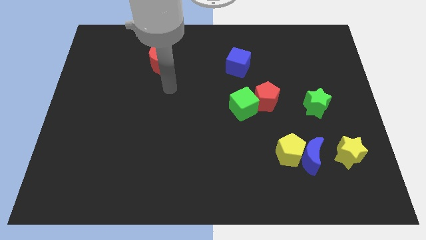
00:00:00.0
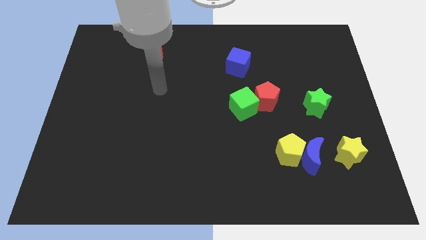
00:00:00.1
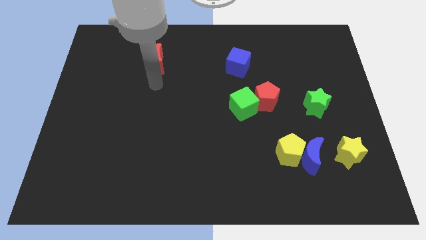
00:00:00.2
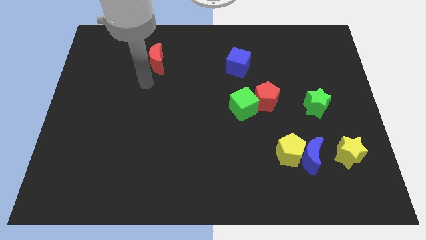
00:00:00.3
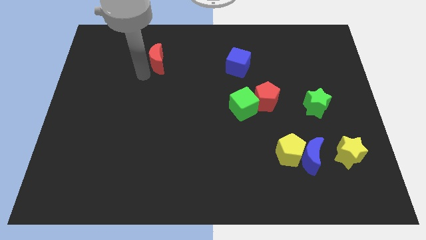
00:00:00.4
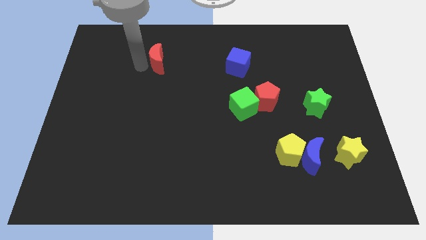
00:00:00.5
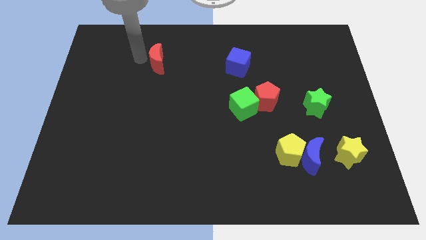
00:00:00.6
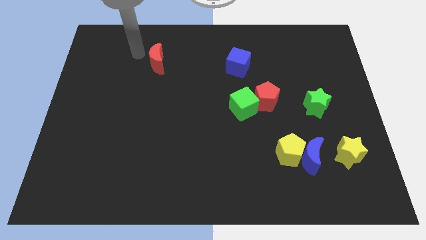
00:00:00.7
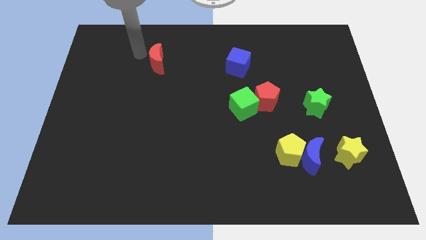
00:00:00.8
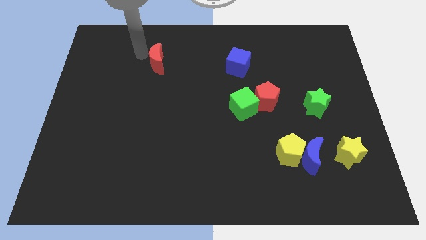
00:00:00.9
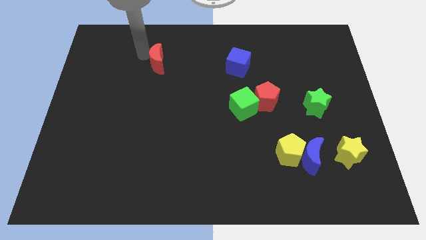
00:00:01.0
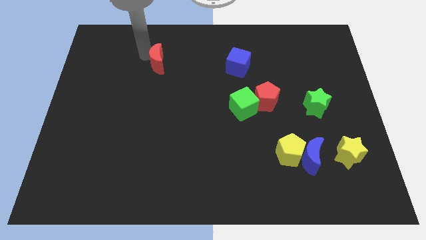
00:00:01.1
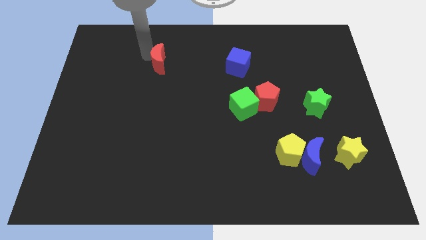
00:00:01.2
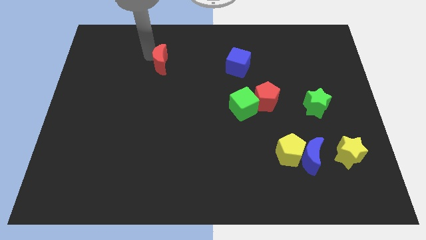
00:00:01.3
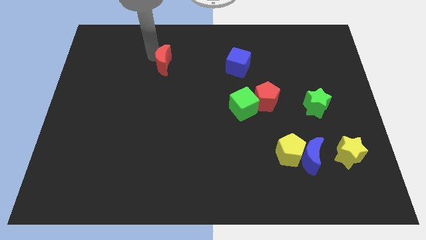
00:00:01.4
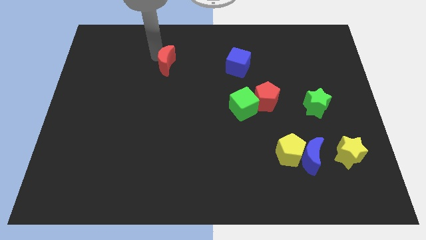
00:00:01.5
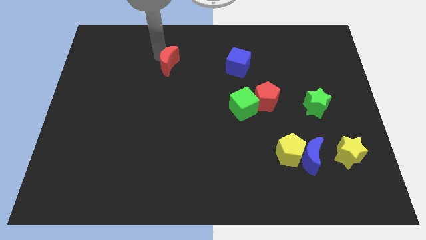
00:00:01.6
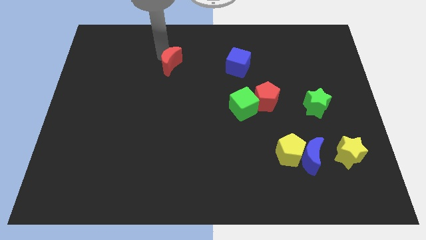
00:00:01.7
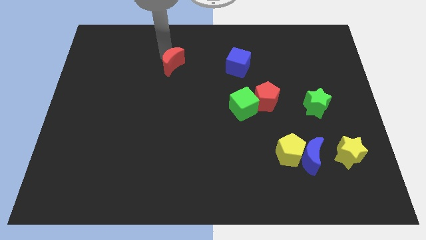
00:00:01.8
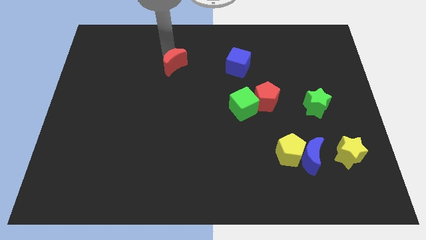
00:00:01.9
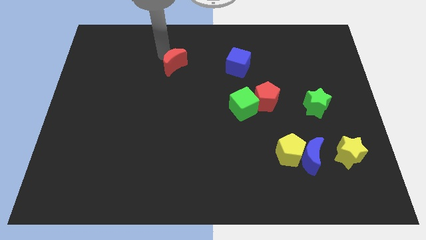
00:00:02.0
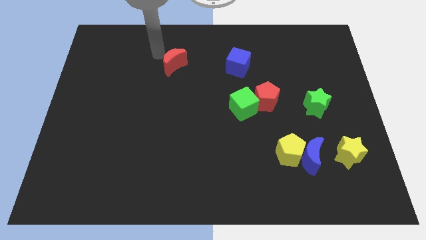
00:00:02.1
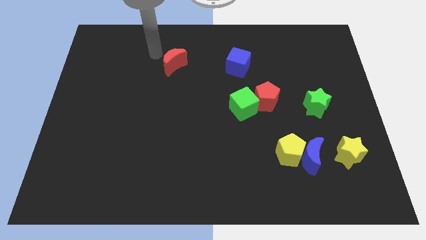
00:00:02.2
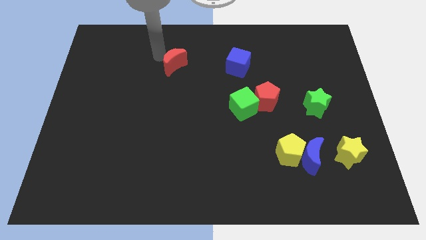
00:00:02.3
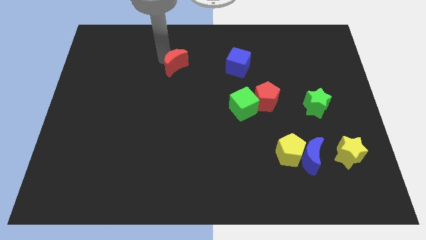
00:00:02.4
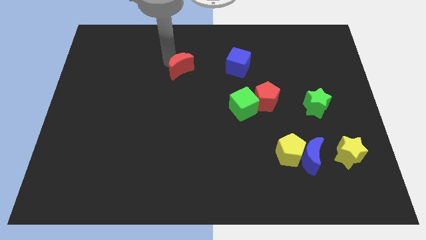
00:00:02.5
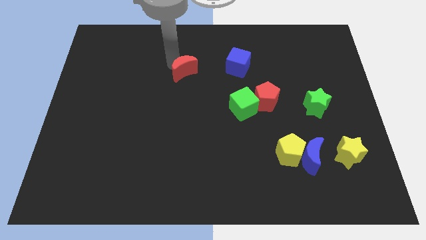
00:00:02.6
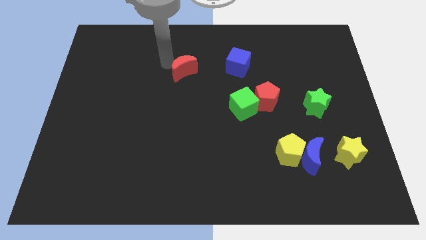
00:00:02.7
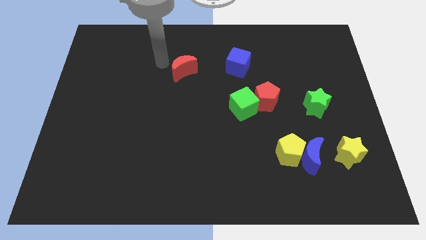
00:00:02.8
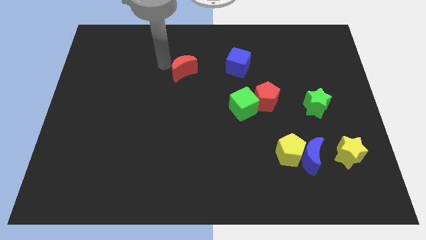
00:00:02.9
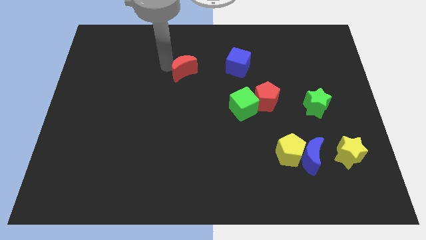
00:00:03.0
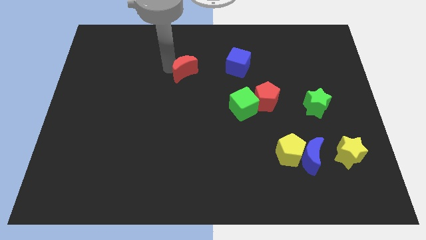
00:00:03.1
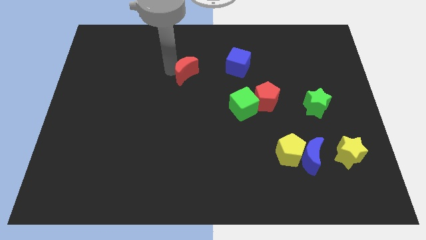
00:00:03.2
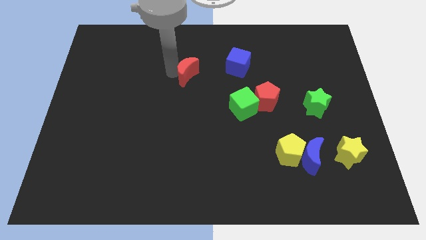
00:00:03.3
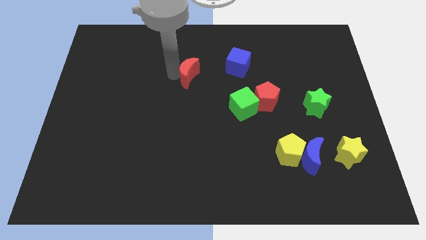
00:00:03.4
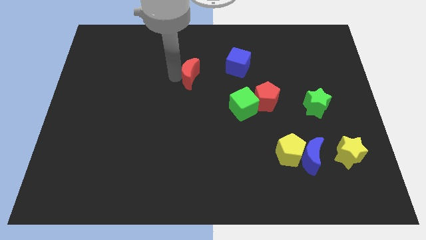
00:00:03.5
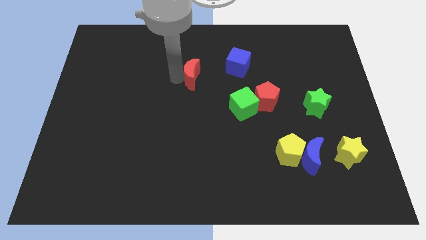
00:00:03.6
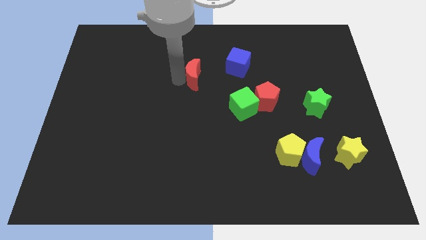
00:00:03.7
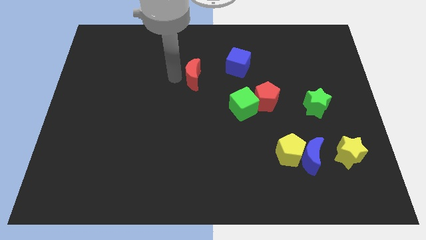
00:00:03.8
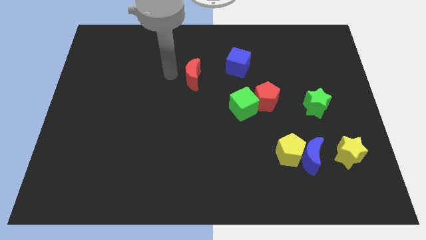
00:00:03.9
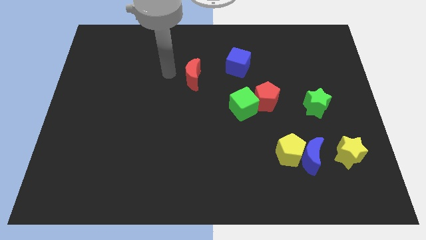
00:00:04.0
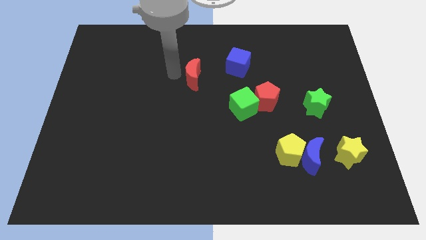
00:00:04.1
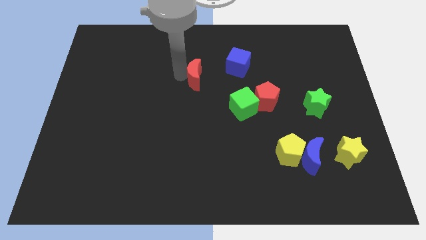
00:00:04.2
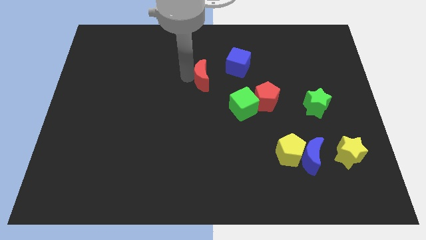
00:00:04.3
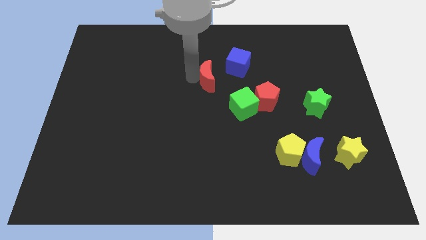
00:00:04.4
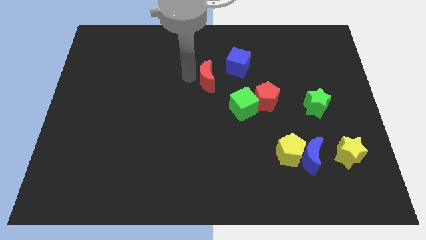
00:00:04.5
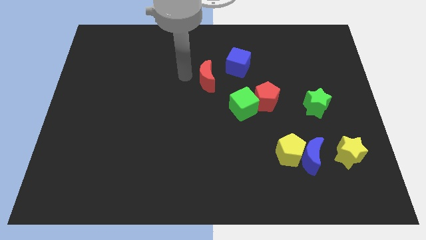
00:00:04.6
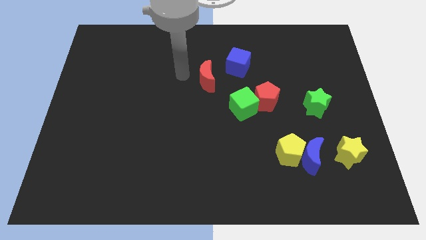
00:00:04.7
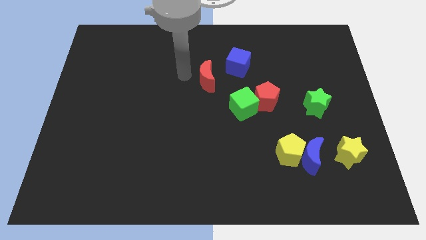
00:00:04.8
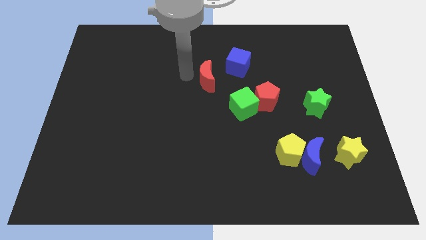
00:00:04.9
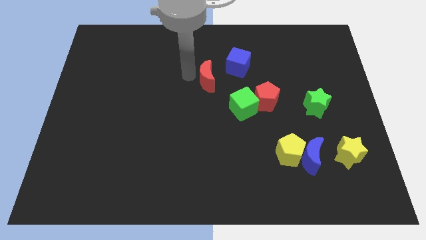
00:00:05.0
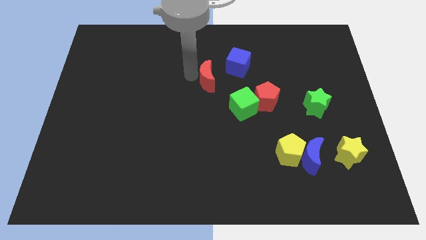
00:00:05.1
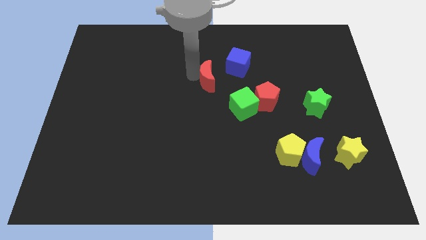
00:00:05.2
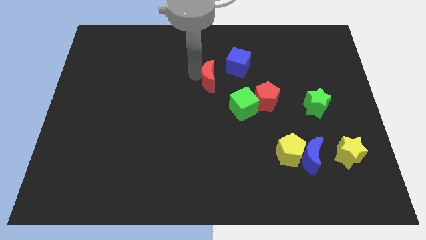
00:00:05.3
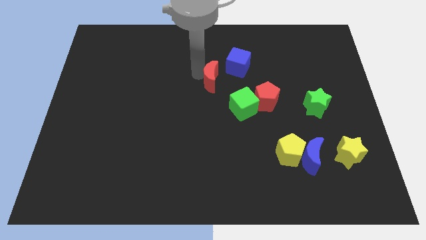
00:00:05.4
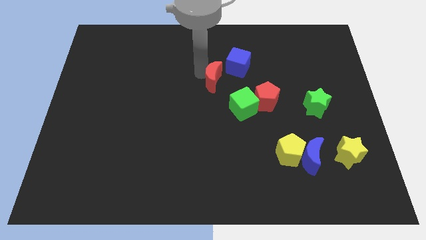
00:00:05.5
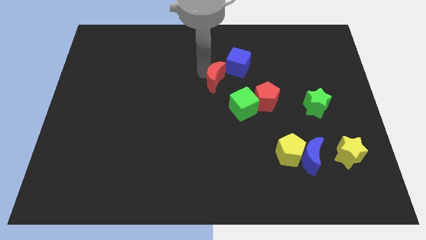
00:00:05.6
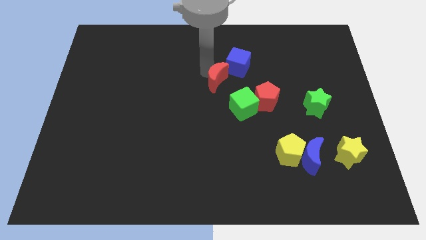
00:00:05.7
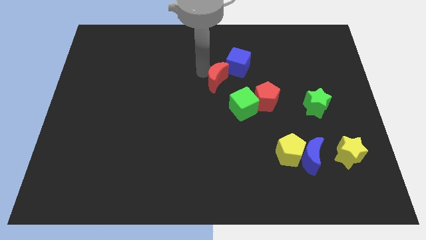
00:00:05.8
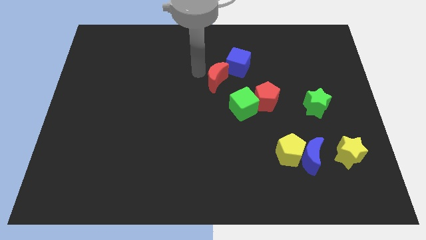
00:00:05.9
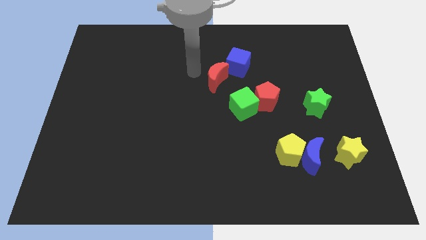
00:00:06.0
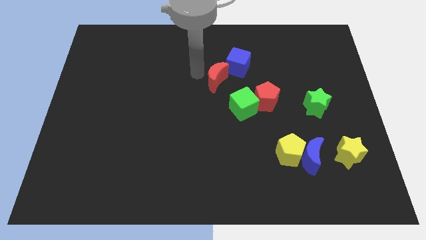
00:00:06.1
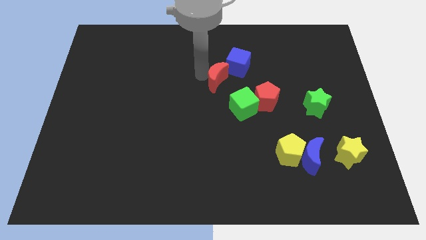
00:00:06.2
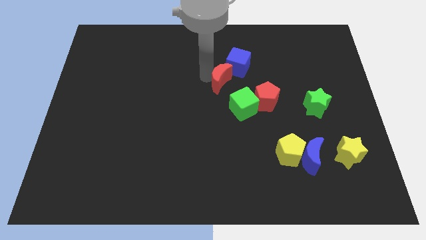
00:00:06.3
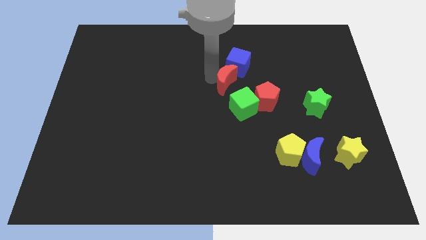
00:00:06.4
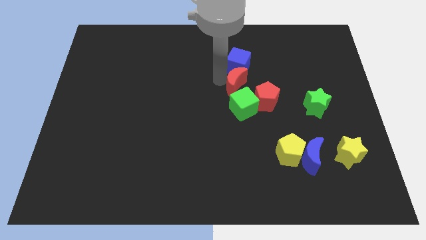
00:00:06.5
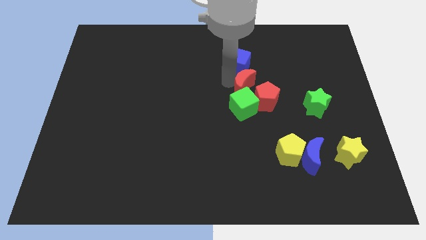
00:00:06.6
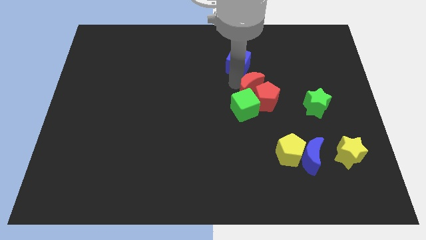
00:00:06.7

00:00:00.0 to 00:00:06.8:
slide the red moon next to the red pentagon
